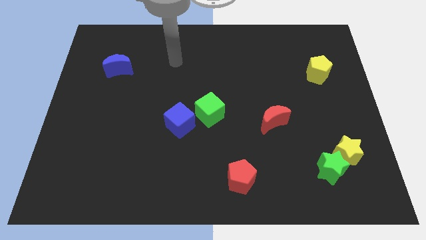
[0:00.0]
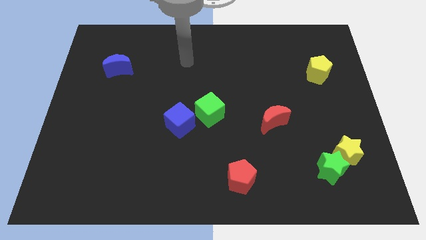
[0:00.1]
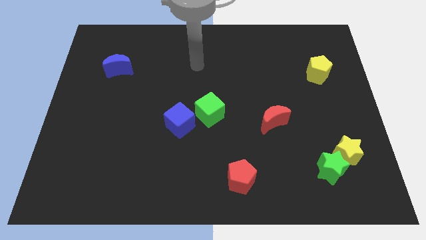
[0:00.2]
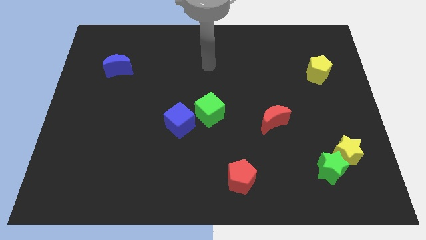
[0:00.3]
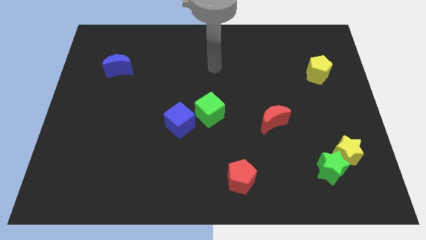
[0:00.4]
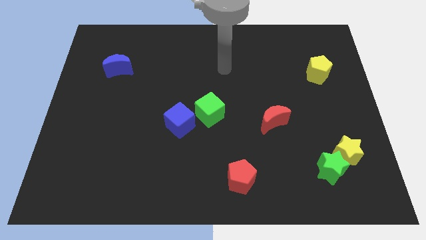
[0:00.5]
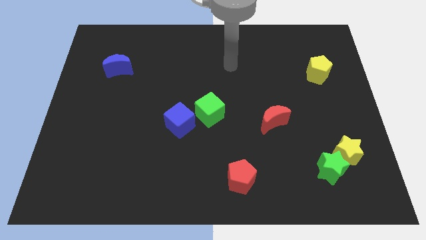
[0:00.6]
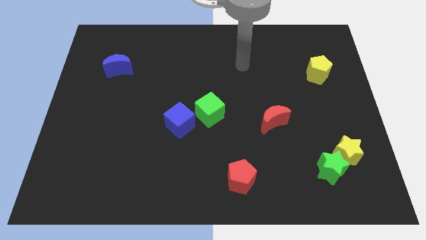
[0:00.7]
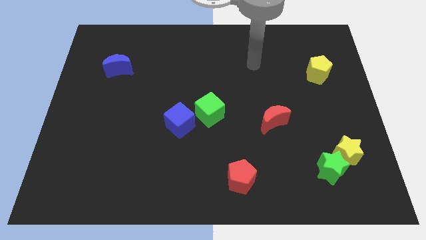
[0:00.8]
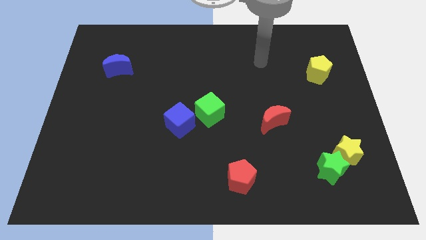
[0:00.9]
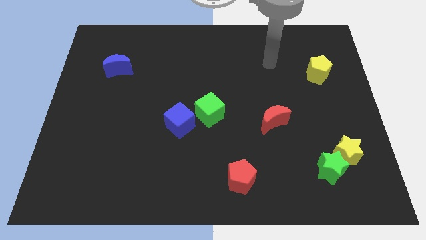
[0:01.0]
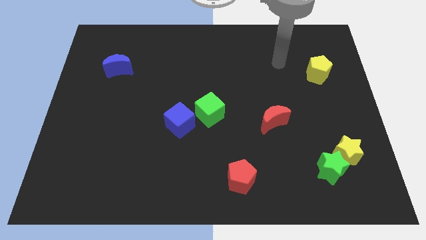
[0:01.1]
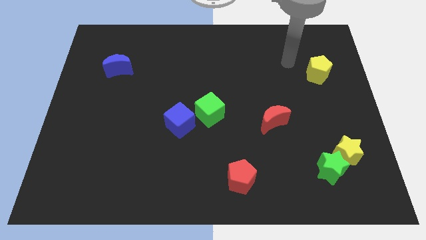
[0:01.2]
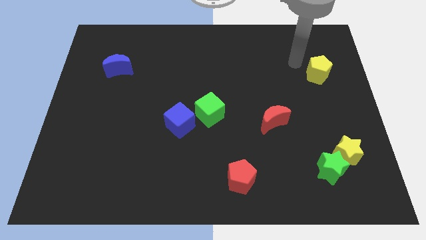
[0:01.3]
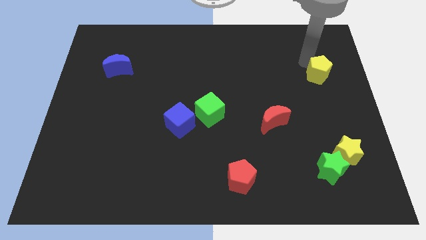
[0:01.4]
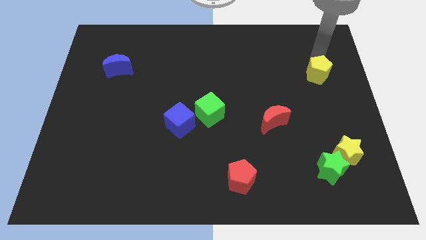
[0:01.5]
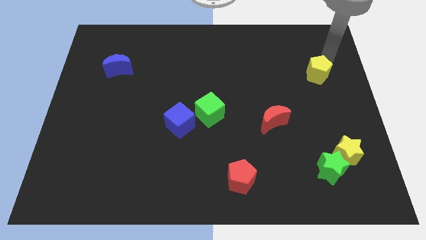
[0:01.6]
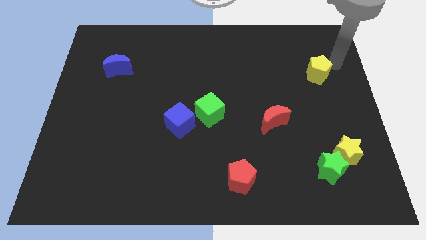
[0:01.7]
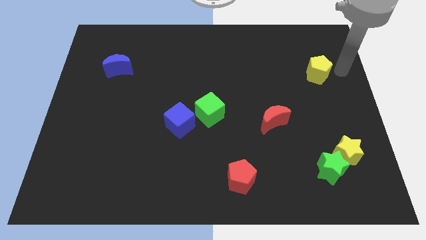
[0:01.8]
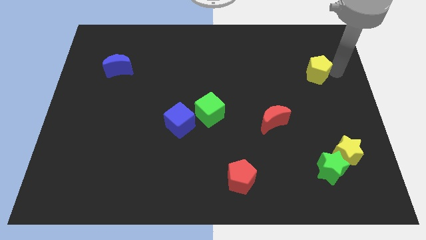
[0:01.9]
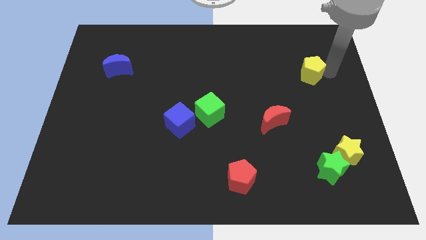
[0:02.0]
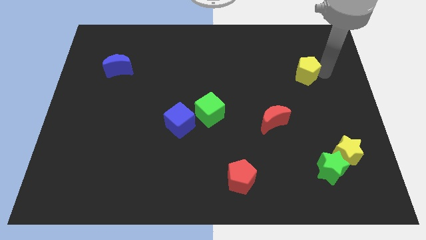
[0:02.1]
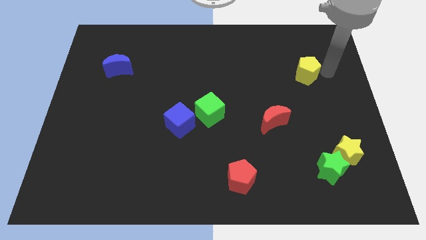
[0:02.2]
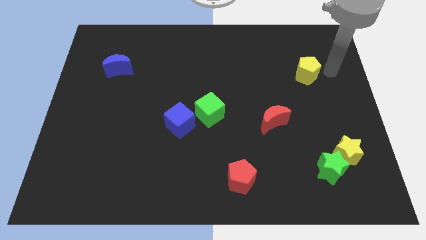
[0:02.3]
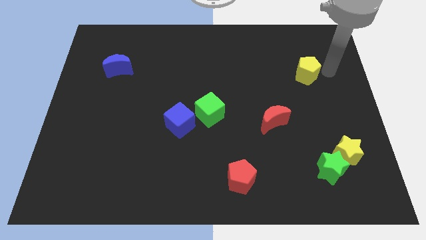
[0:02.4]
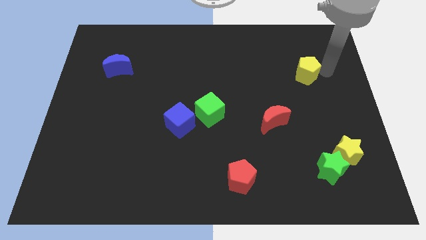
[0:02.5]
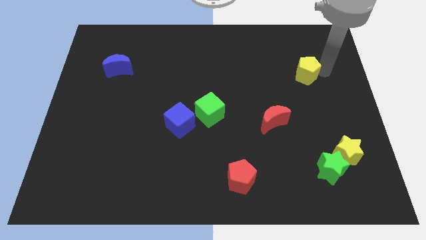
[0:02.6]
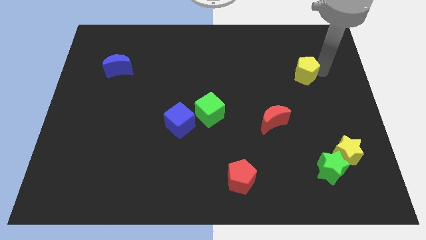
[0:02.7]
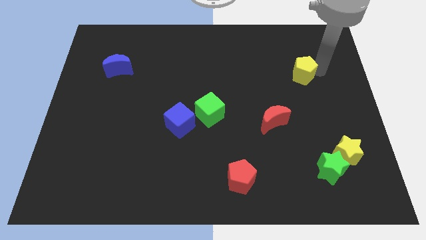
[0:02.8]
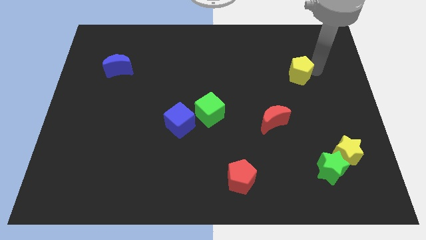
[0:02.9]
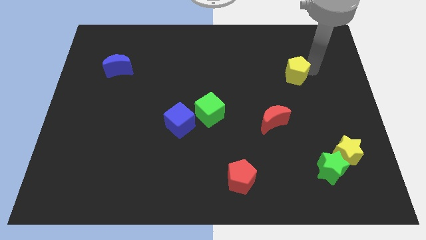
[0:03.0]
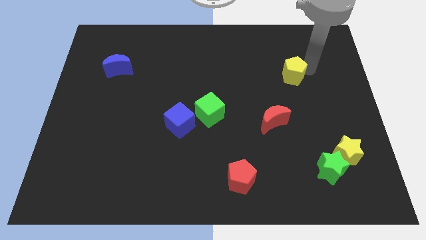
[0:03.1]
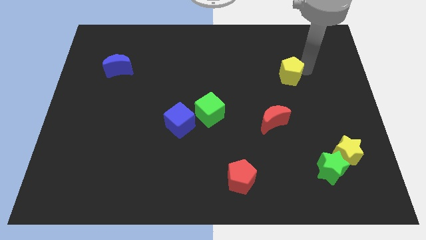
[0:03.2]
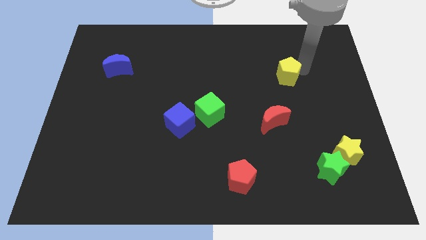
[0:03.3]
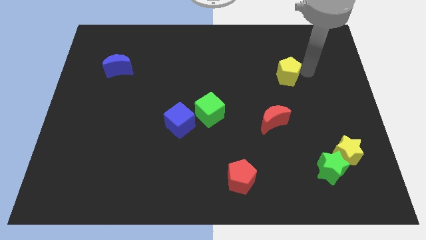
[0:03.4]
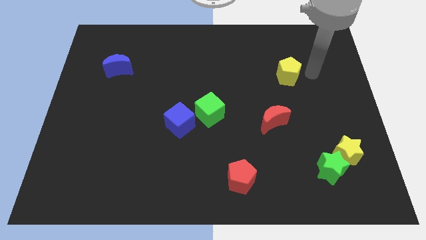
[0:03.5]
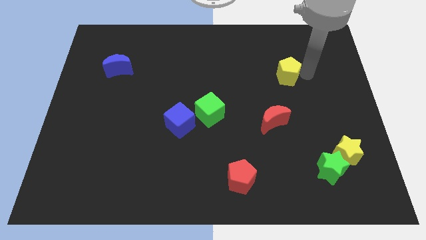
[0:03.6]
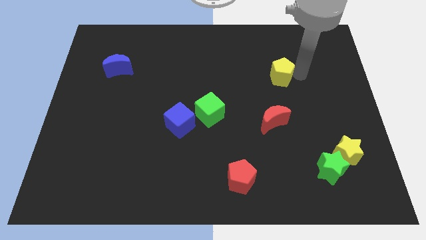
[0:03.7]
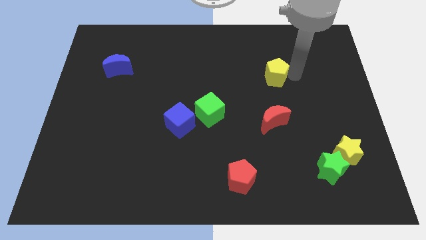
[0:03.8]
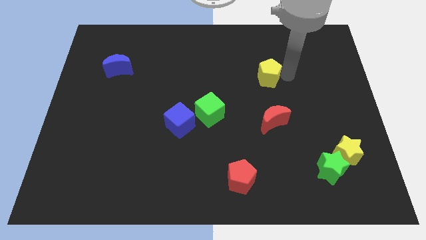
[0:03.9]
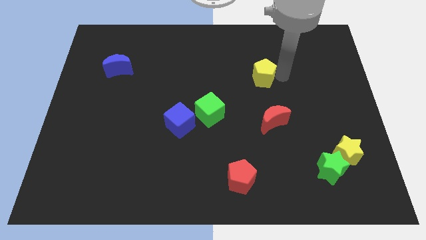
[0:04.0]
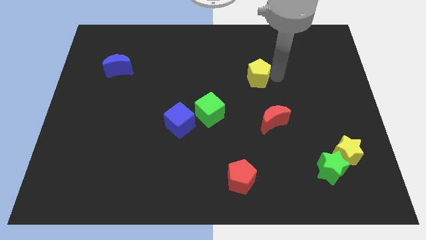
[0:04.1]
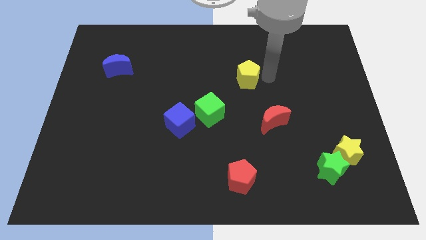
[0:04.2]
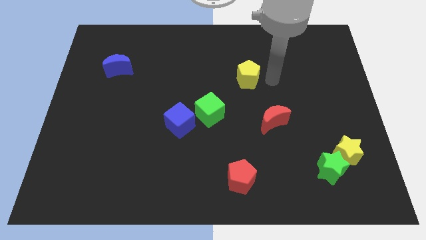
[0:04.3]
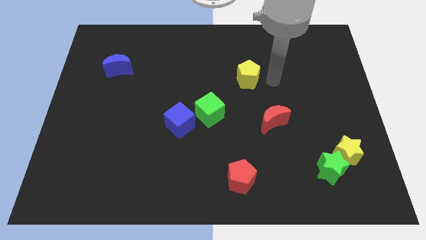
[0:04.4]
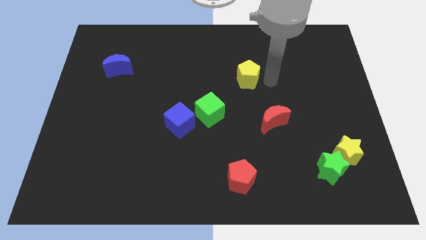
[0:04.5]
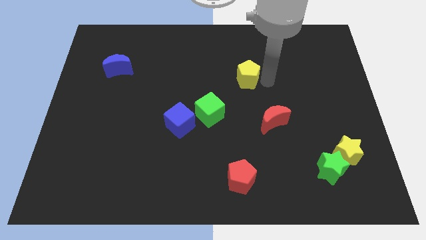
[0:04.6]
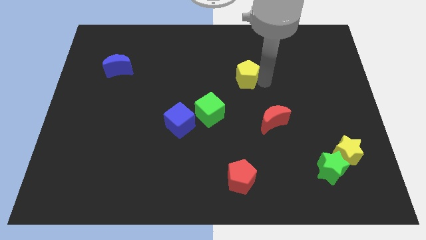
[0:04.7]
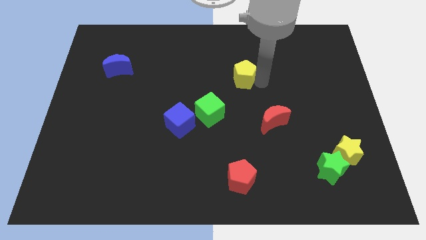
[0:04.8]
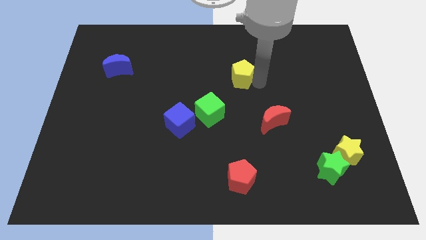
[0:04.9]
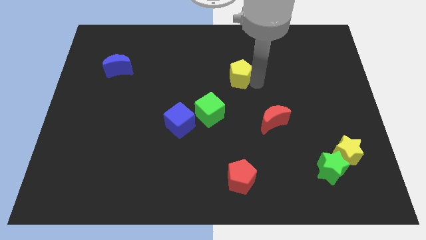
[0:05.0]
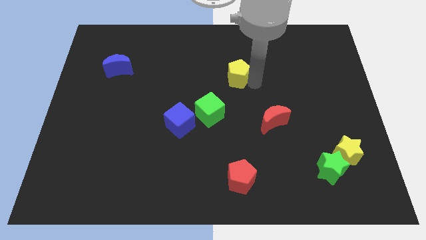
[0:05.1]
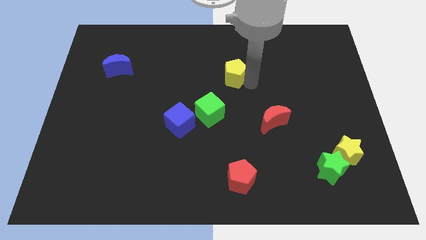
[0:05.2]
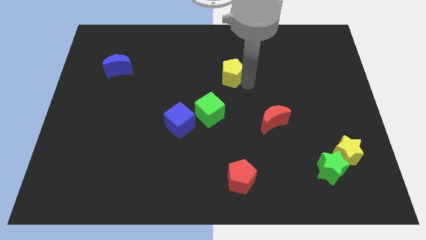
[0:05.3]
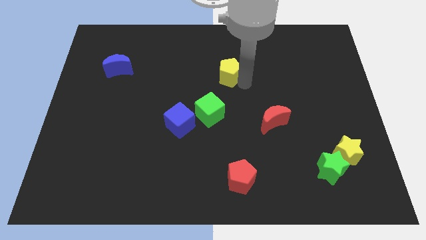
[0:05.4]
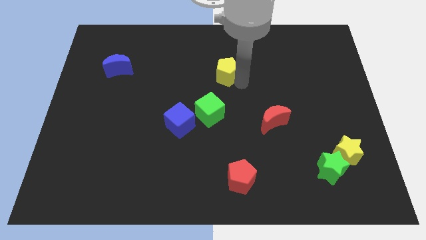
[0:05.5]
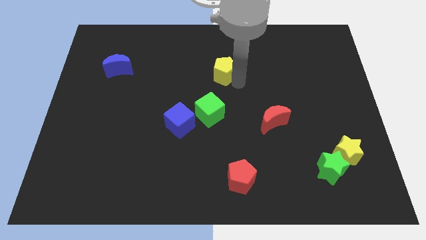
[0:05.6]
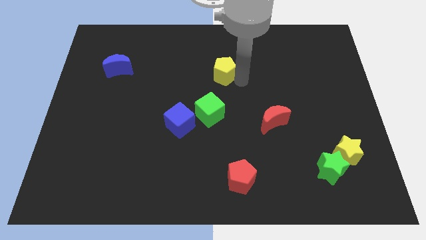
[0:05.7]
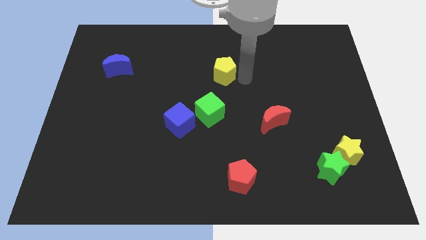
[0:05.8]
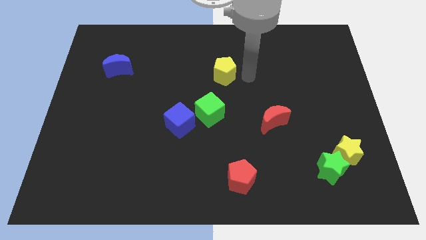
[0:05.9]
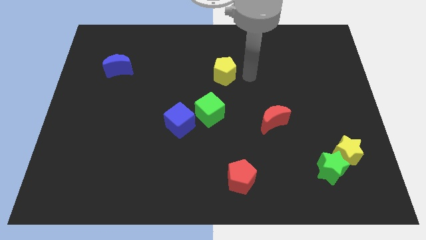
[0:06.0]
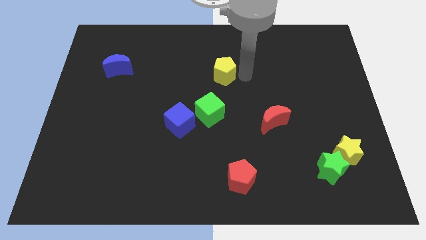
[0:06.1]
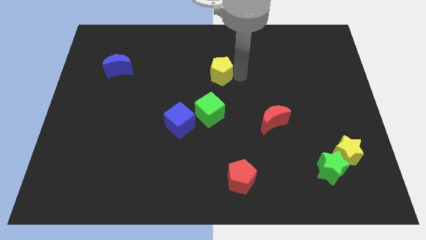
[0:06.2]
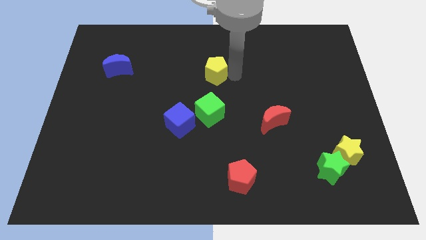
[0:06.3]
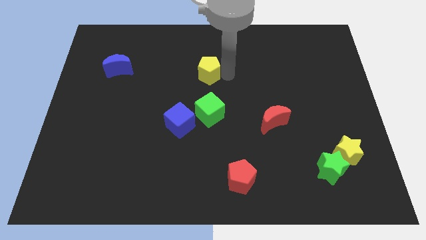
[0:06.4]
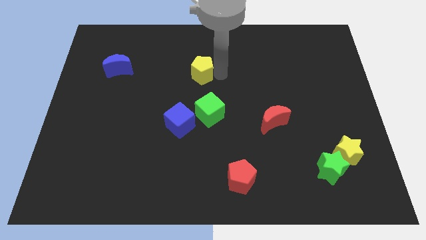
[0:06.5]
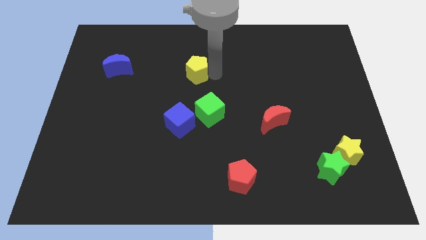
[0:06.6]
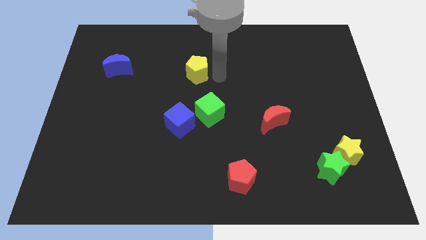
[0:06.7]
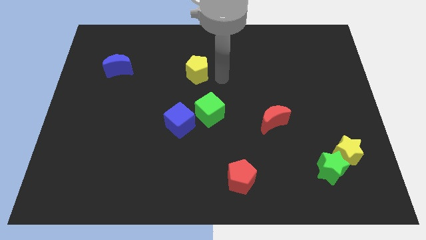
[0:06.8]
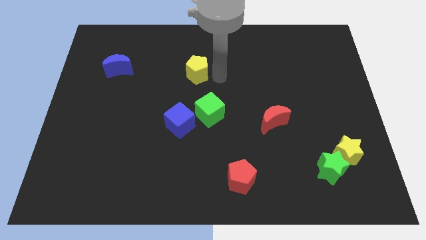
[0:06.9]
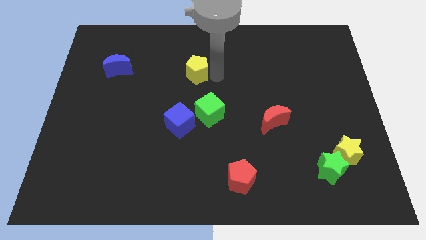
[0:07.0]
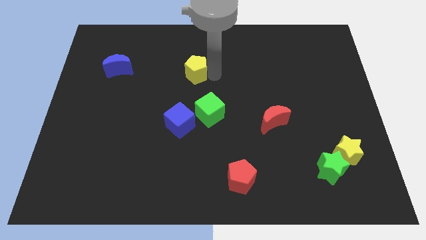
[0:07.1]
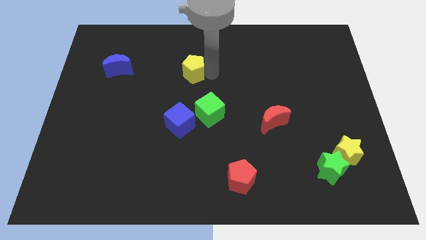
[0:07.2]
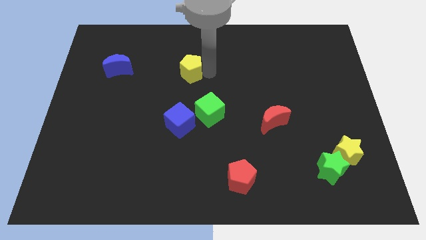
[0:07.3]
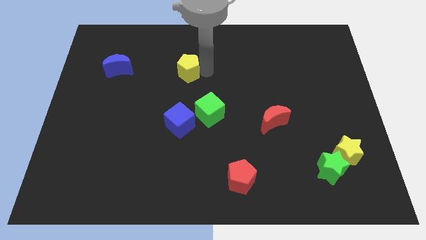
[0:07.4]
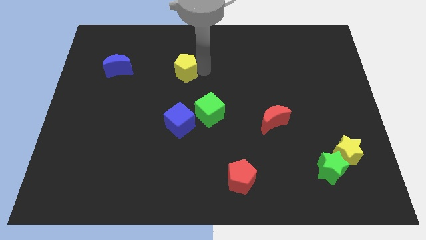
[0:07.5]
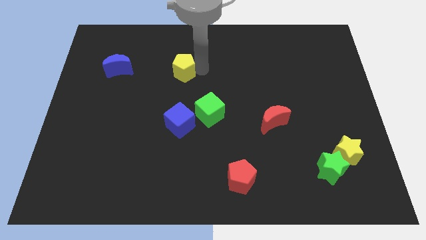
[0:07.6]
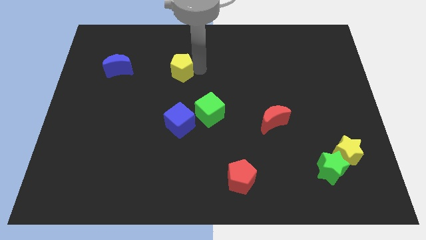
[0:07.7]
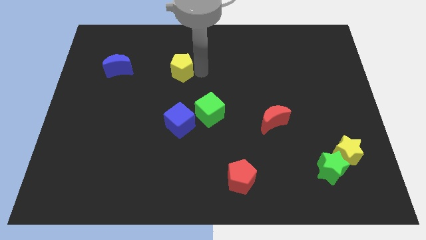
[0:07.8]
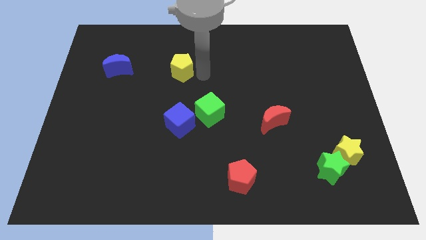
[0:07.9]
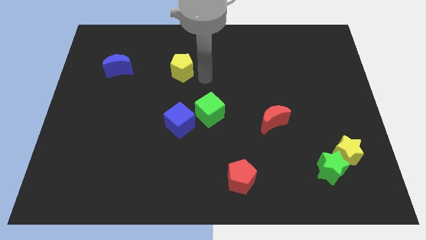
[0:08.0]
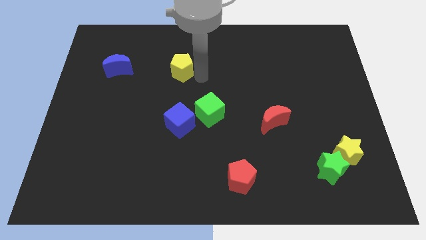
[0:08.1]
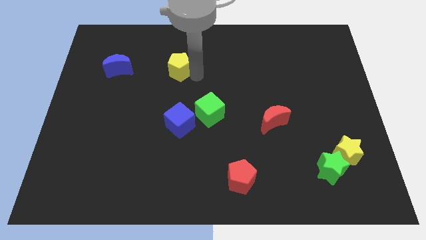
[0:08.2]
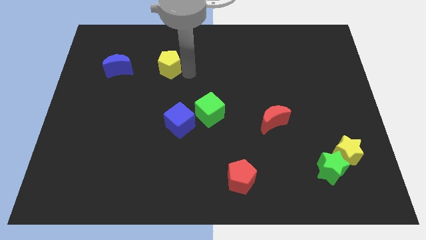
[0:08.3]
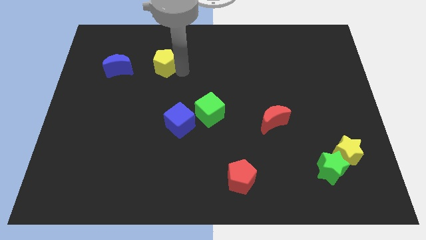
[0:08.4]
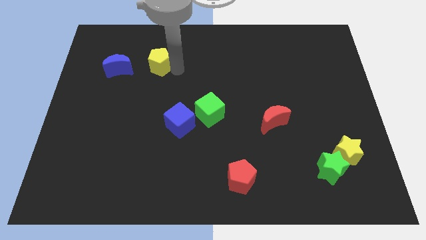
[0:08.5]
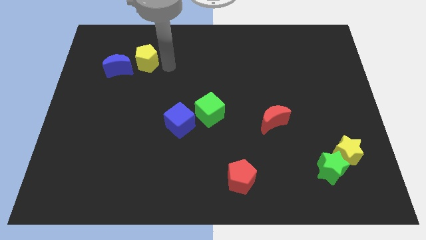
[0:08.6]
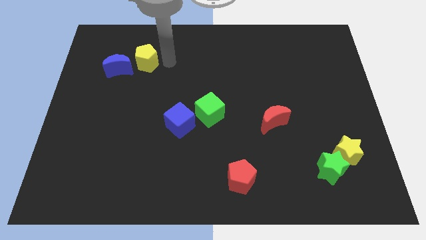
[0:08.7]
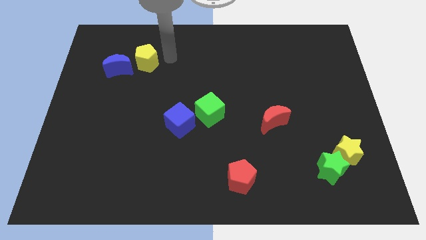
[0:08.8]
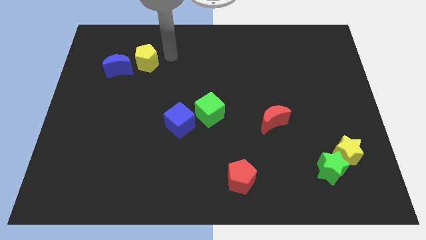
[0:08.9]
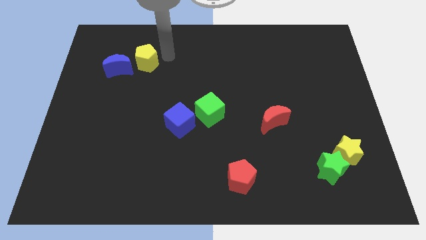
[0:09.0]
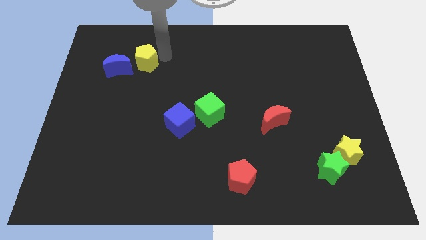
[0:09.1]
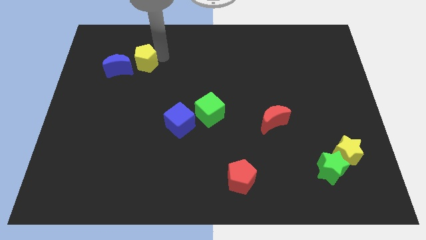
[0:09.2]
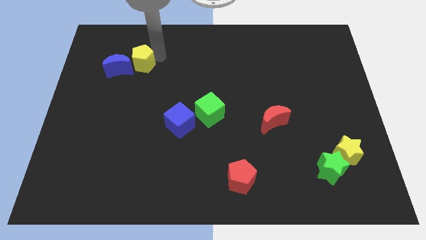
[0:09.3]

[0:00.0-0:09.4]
move the yellow pentagon towards the blue moon
